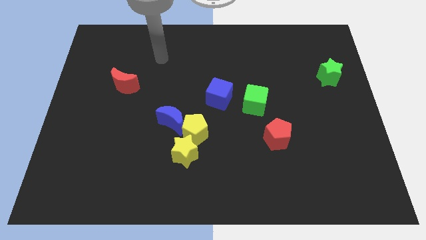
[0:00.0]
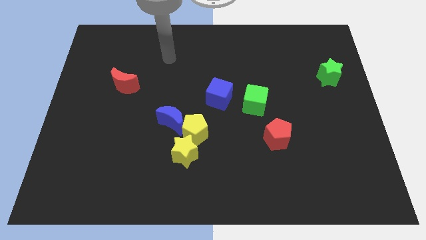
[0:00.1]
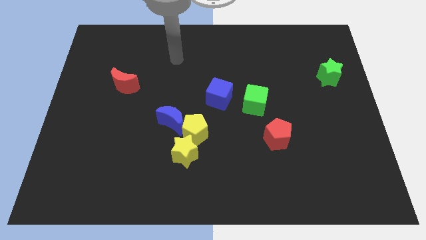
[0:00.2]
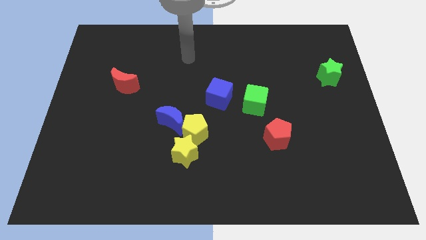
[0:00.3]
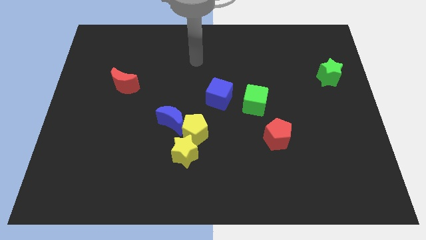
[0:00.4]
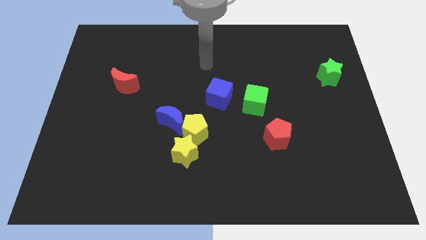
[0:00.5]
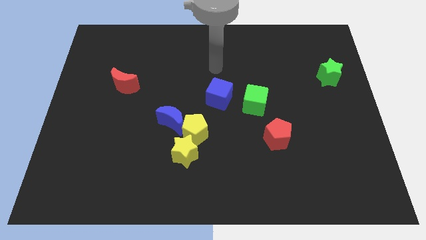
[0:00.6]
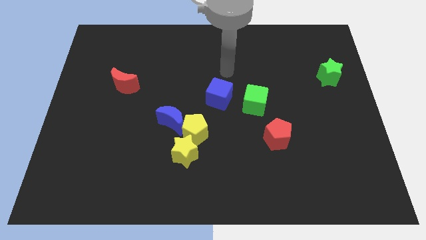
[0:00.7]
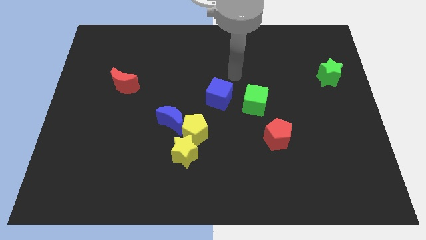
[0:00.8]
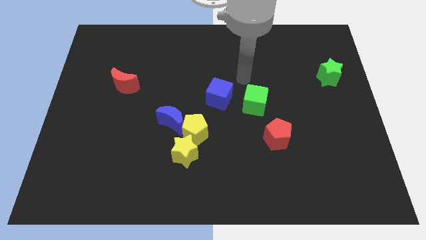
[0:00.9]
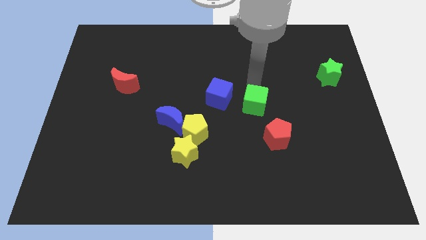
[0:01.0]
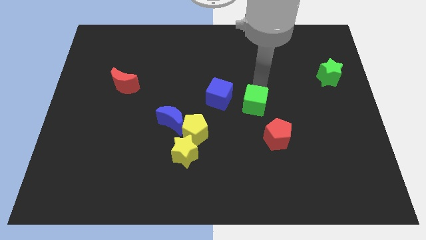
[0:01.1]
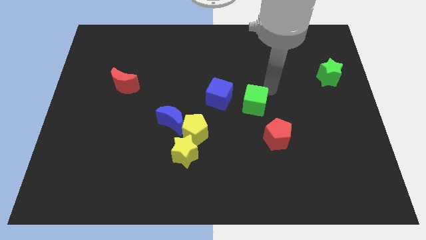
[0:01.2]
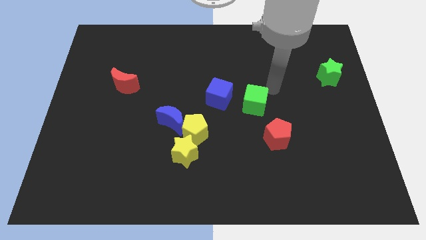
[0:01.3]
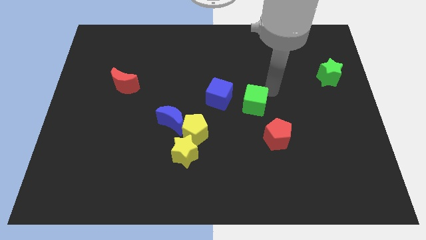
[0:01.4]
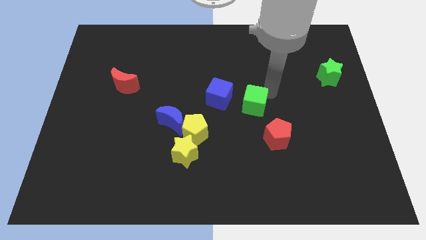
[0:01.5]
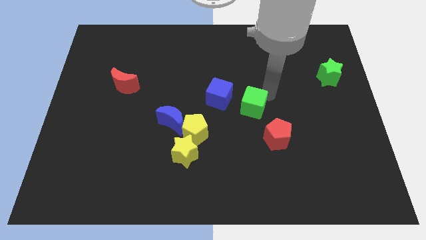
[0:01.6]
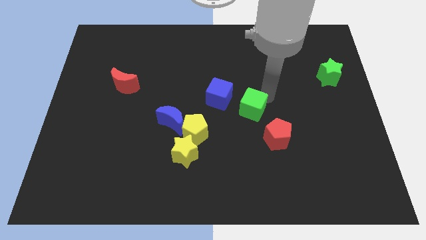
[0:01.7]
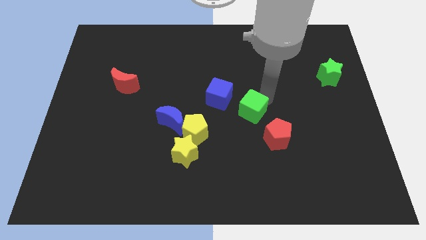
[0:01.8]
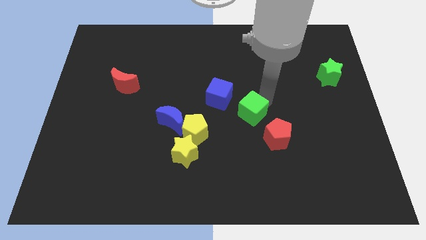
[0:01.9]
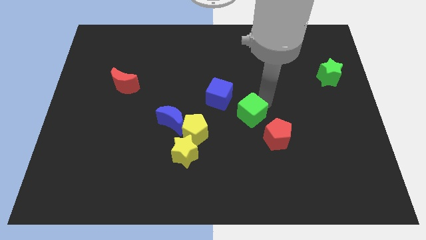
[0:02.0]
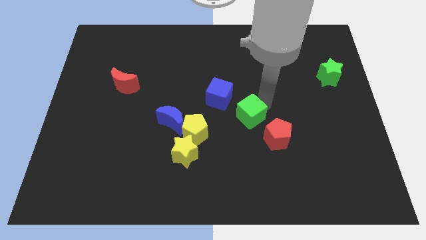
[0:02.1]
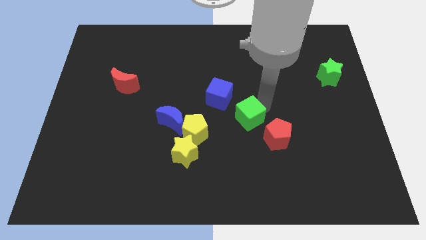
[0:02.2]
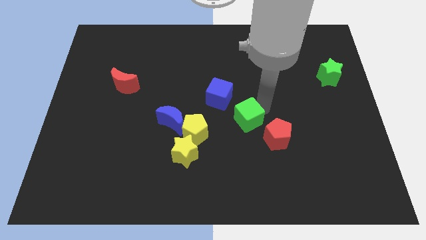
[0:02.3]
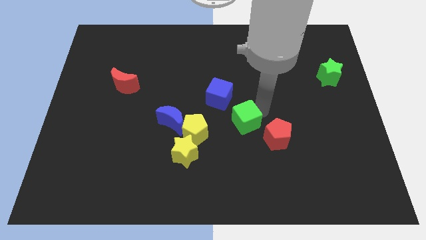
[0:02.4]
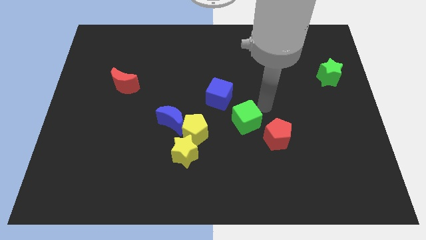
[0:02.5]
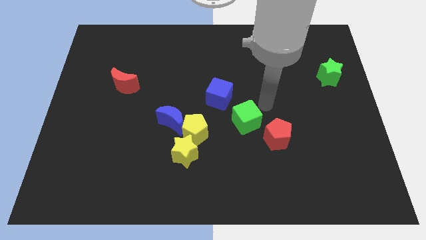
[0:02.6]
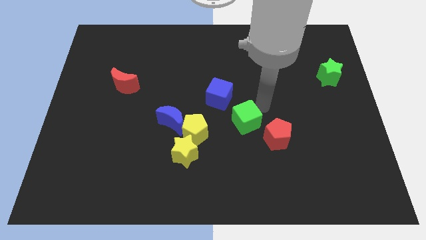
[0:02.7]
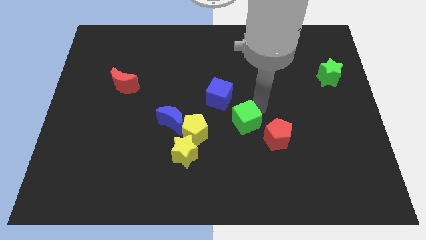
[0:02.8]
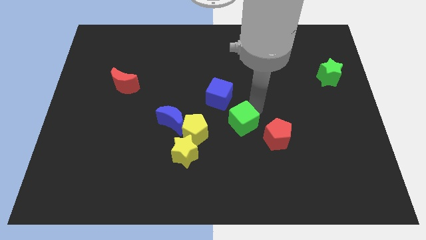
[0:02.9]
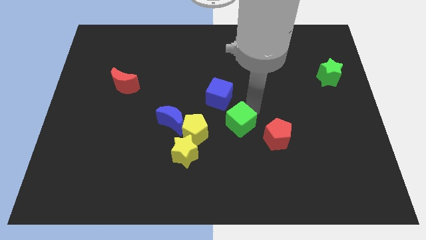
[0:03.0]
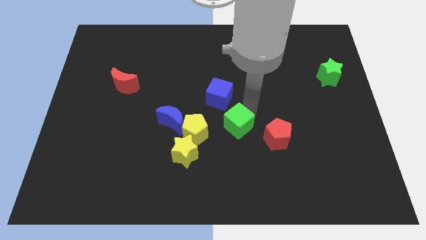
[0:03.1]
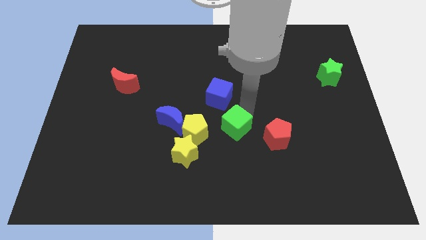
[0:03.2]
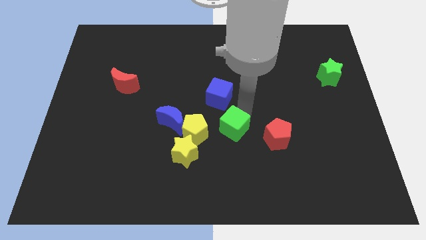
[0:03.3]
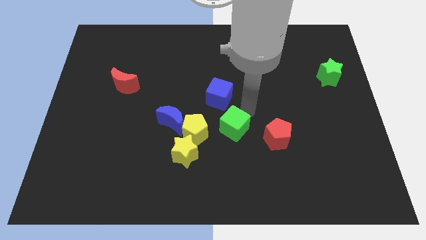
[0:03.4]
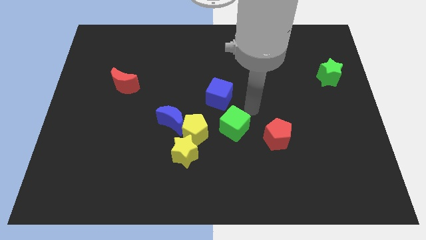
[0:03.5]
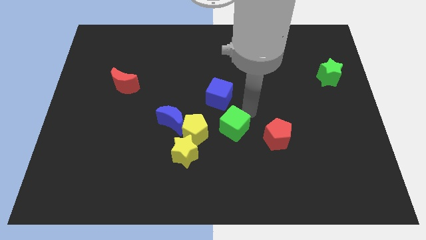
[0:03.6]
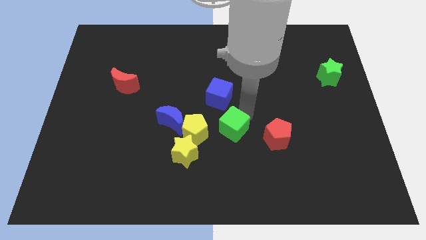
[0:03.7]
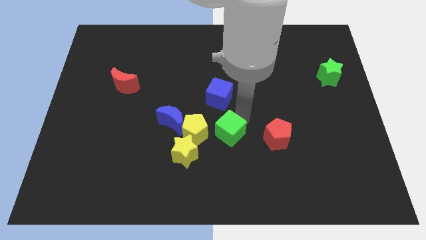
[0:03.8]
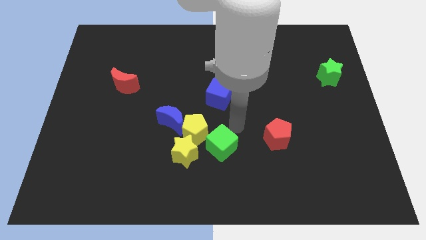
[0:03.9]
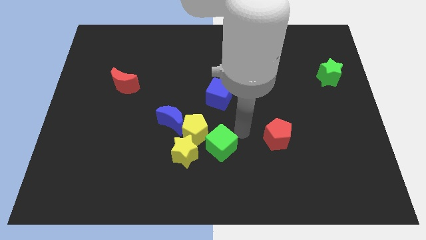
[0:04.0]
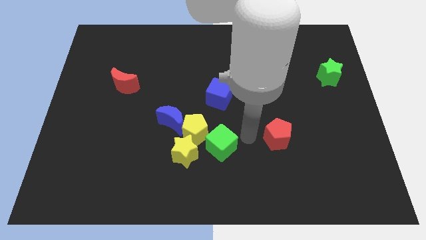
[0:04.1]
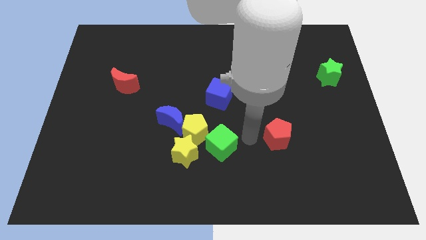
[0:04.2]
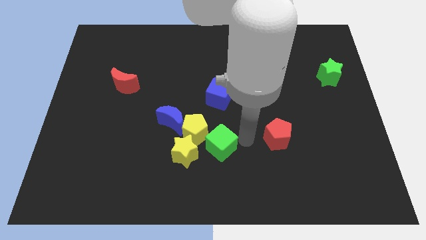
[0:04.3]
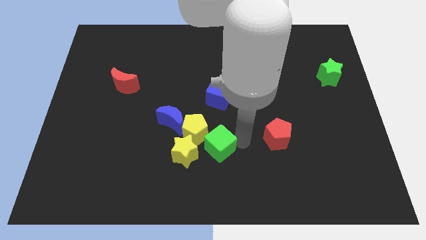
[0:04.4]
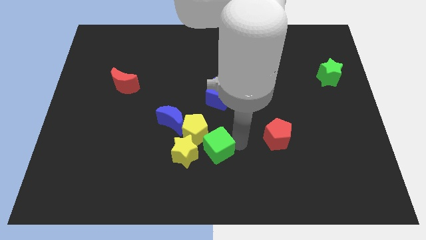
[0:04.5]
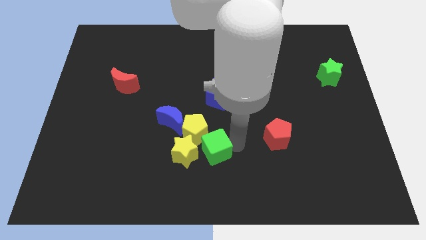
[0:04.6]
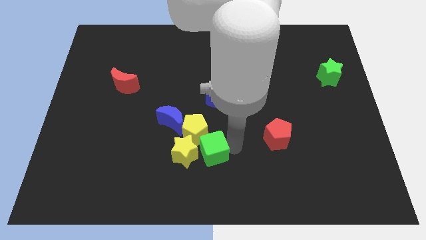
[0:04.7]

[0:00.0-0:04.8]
move the green cube close to the yellow star

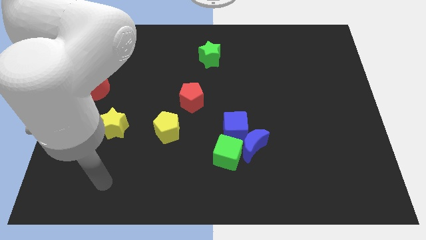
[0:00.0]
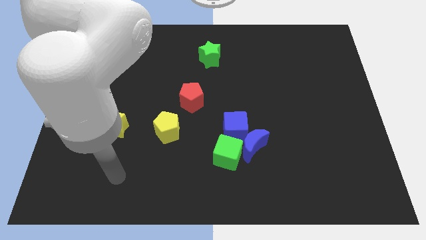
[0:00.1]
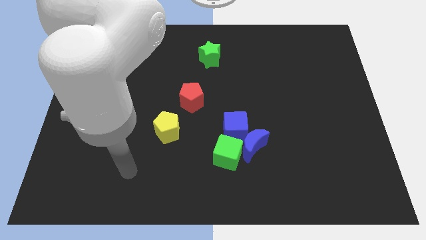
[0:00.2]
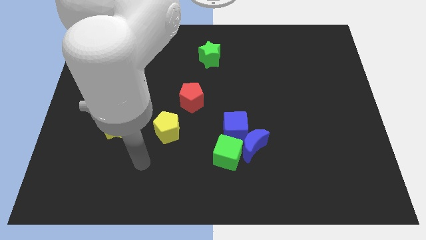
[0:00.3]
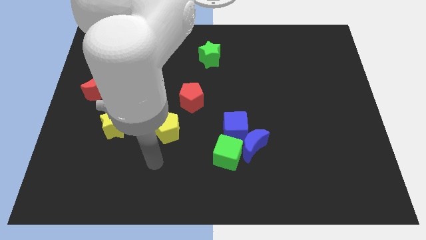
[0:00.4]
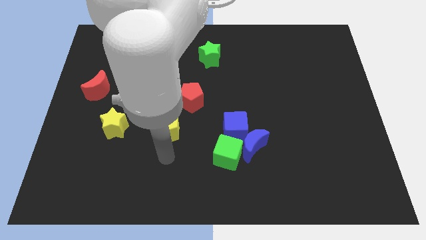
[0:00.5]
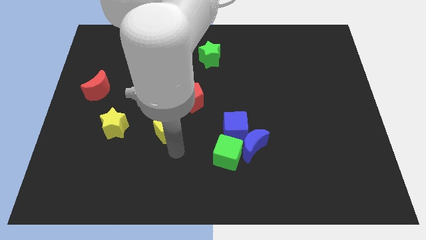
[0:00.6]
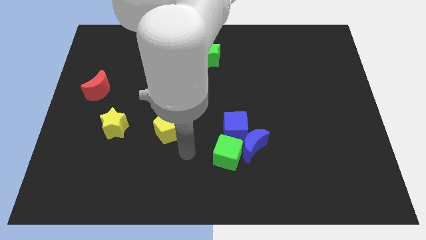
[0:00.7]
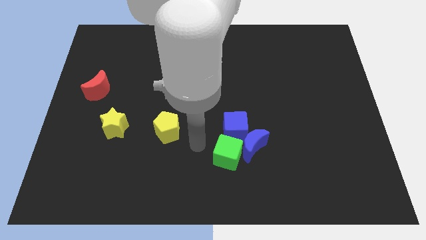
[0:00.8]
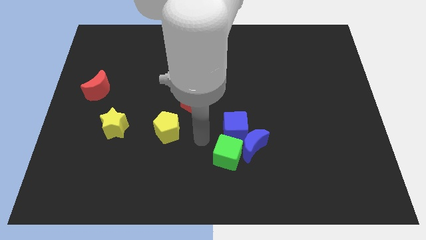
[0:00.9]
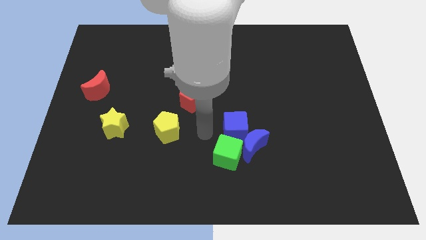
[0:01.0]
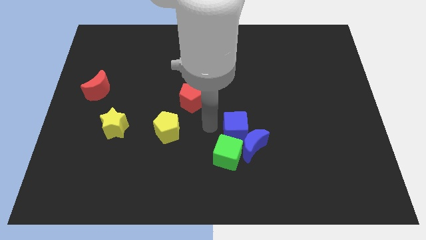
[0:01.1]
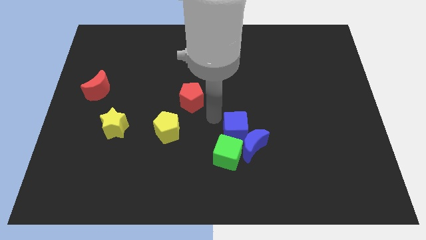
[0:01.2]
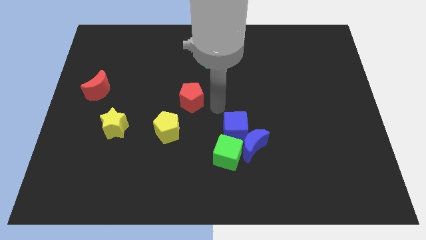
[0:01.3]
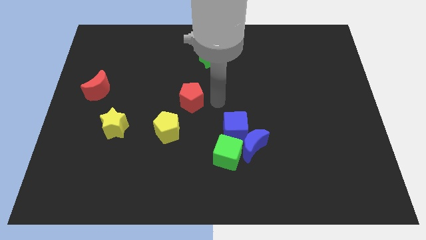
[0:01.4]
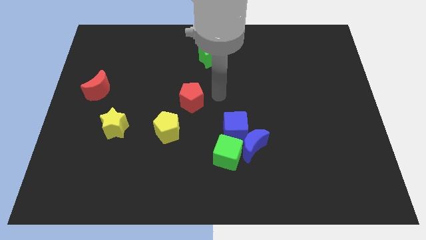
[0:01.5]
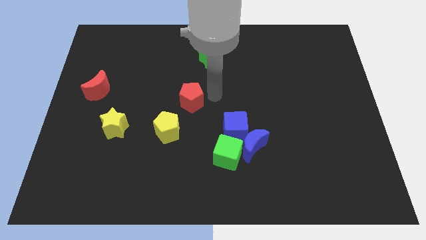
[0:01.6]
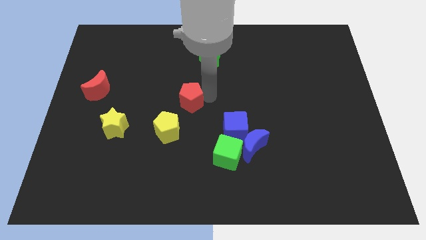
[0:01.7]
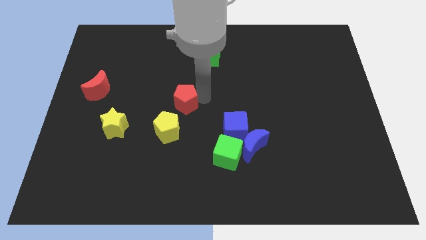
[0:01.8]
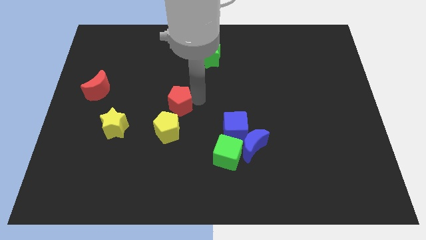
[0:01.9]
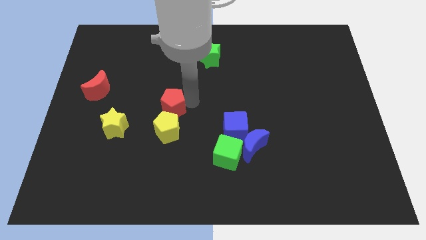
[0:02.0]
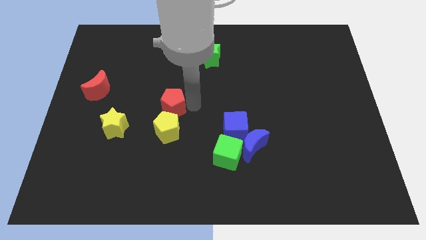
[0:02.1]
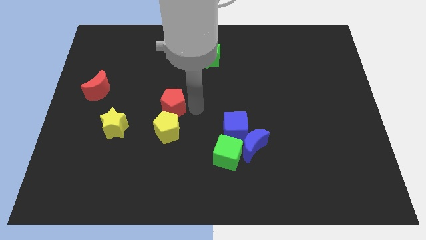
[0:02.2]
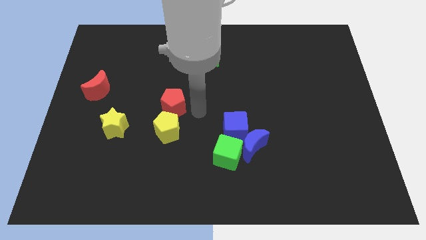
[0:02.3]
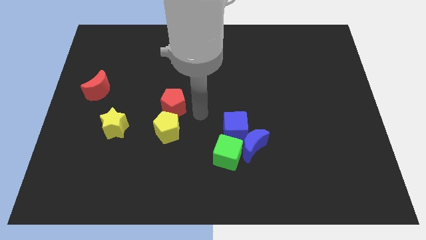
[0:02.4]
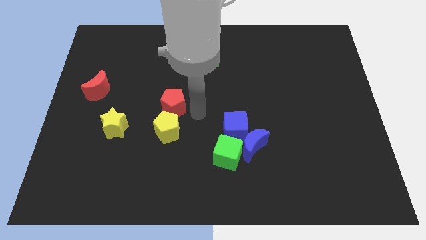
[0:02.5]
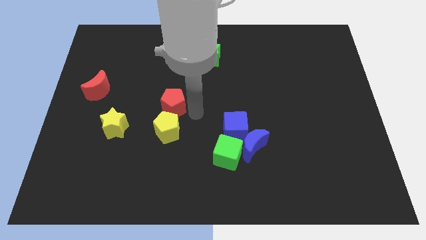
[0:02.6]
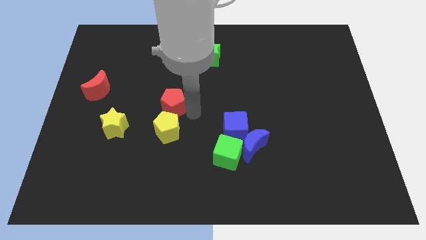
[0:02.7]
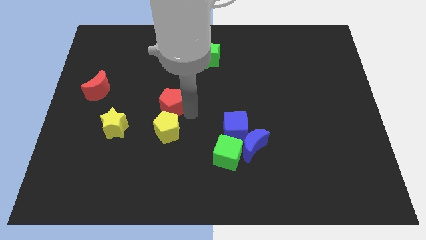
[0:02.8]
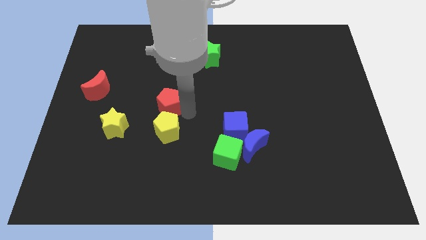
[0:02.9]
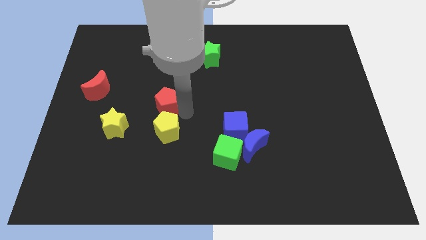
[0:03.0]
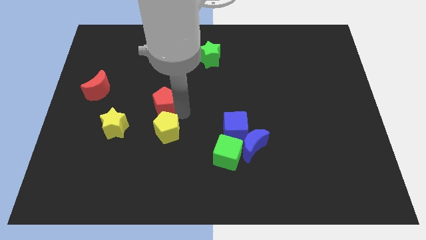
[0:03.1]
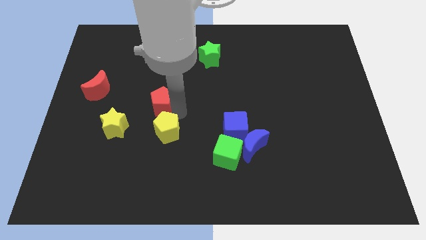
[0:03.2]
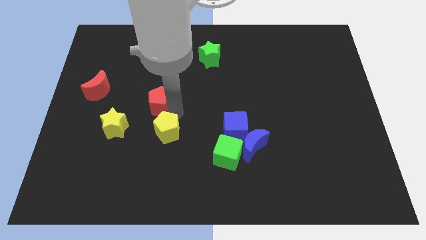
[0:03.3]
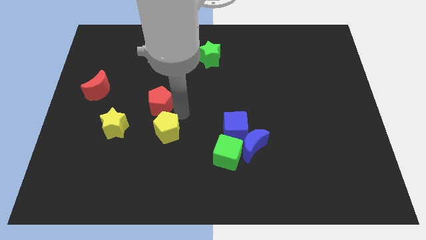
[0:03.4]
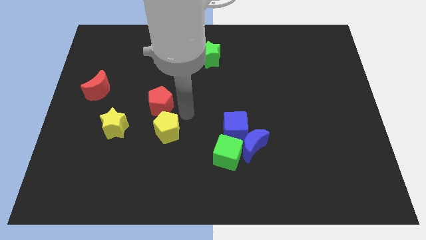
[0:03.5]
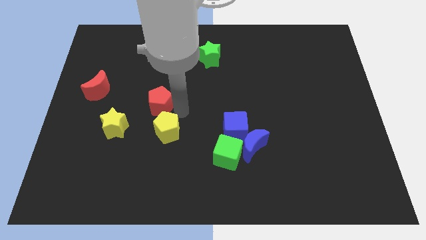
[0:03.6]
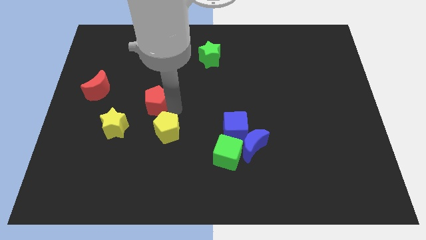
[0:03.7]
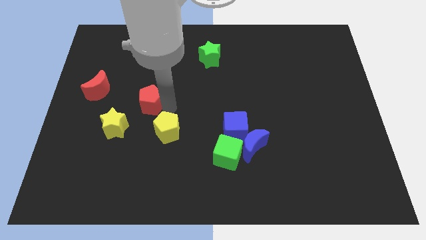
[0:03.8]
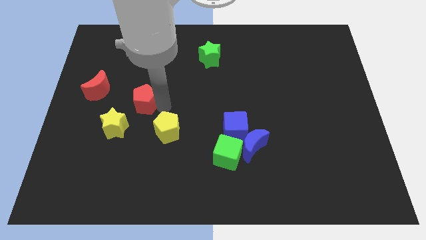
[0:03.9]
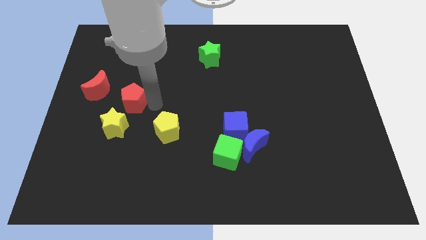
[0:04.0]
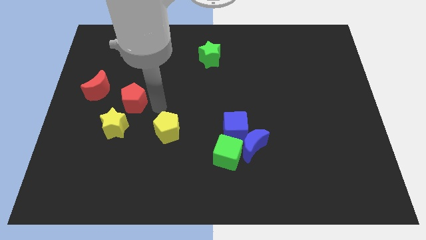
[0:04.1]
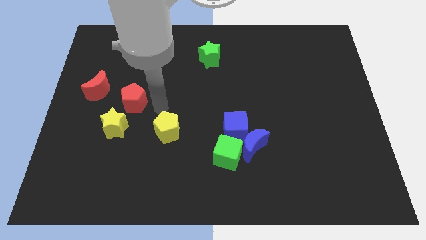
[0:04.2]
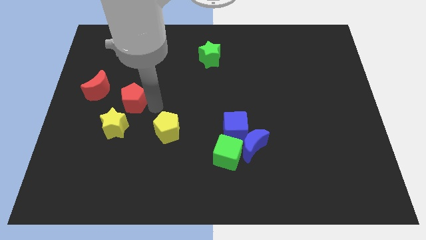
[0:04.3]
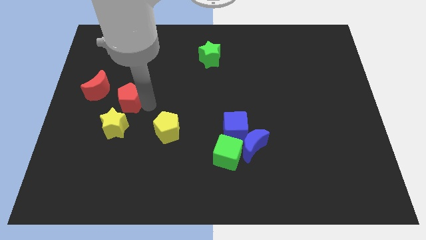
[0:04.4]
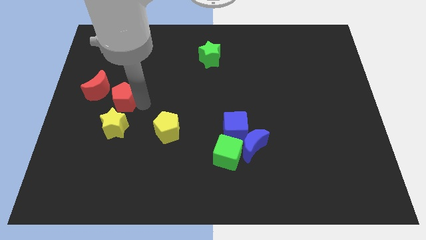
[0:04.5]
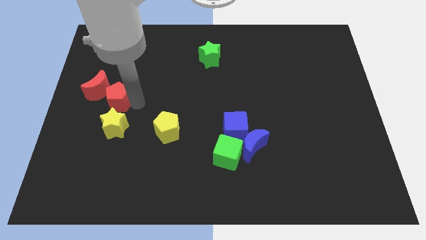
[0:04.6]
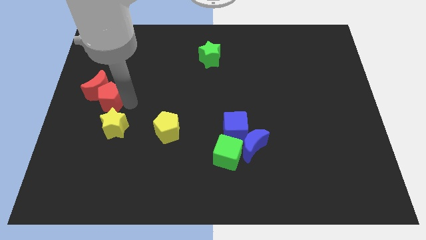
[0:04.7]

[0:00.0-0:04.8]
move the red pentagon close to the red moon
